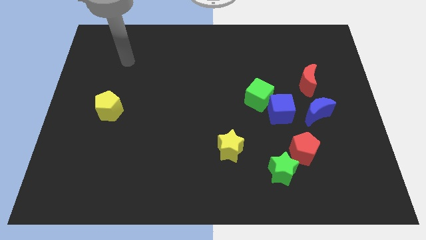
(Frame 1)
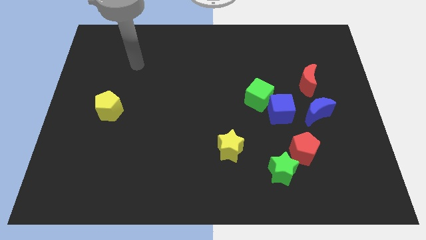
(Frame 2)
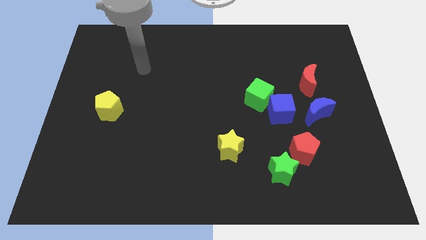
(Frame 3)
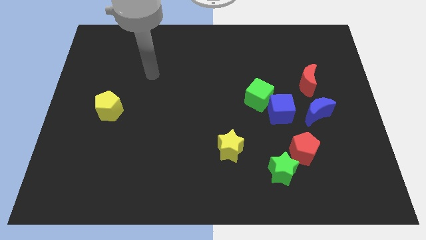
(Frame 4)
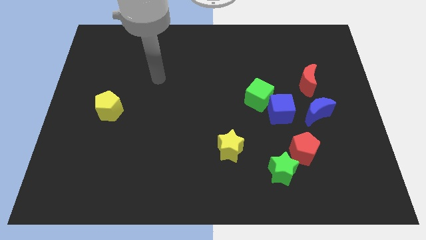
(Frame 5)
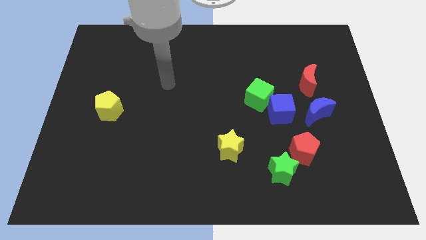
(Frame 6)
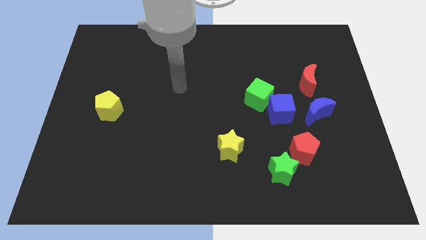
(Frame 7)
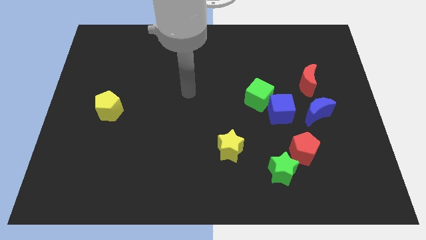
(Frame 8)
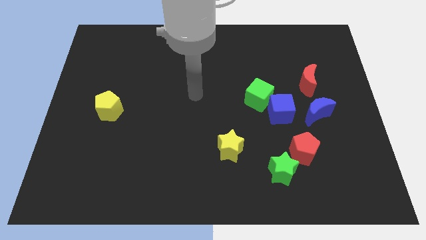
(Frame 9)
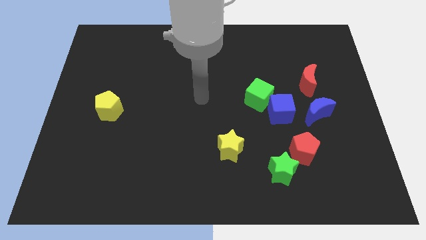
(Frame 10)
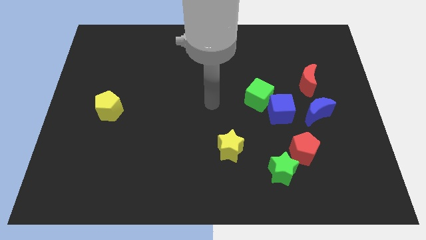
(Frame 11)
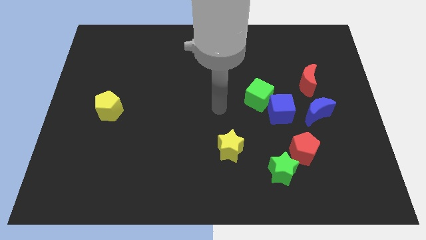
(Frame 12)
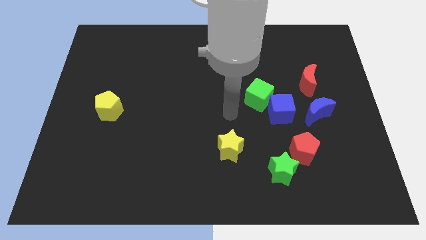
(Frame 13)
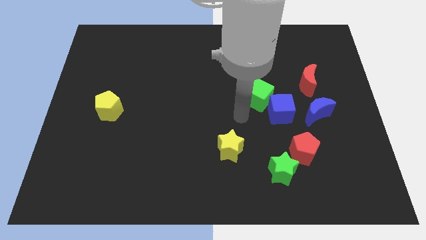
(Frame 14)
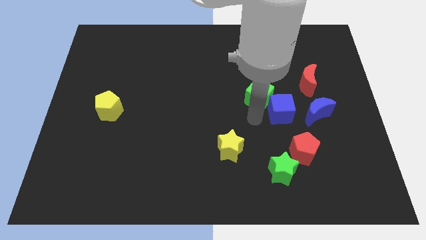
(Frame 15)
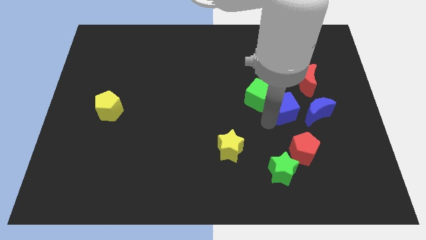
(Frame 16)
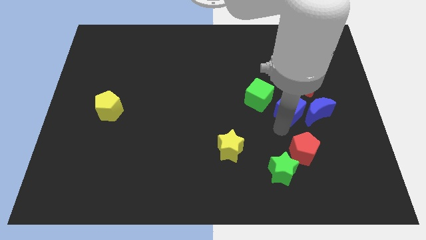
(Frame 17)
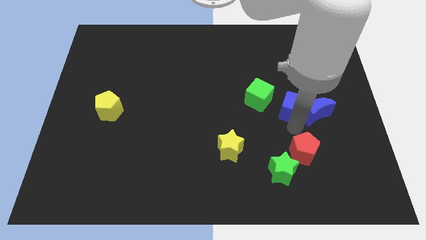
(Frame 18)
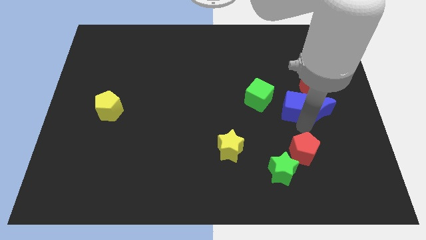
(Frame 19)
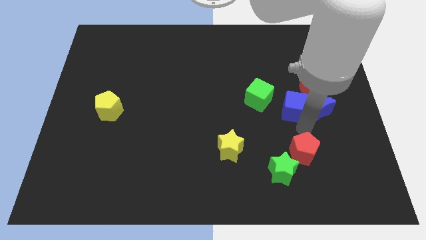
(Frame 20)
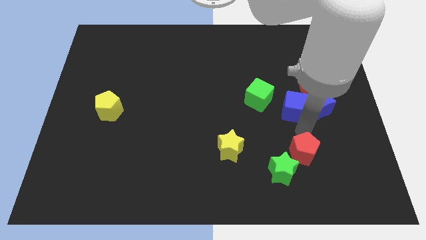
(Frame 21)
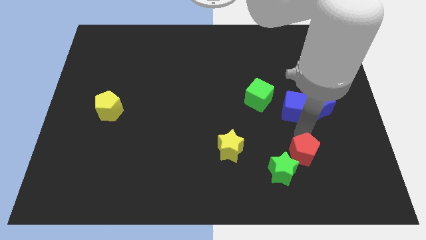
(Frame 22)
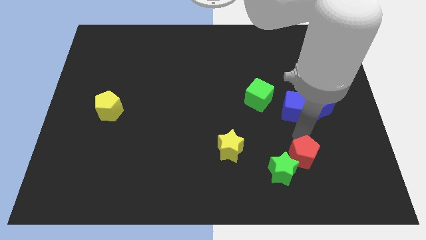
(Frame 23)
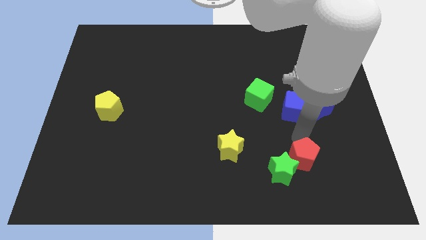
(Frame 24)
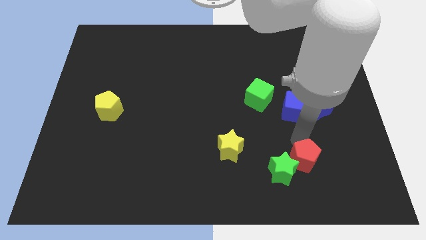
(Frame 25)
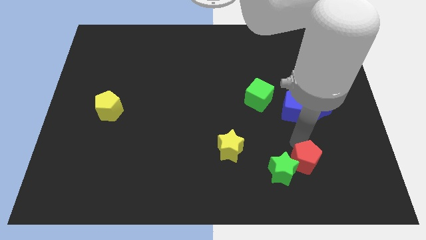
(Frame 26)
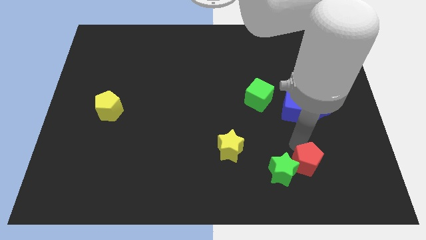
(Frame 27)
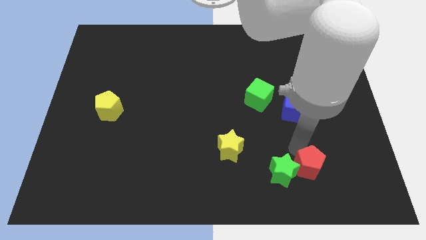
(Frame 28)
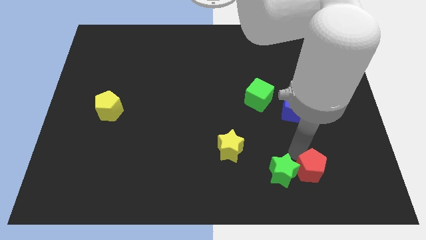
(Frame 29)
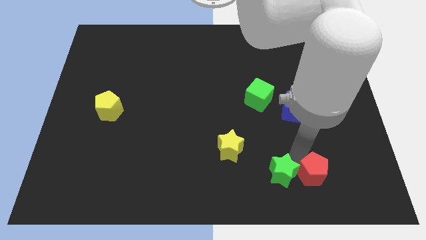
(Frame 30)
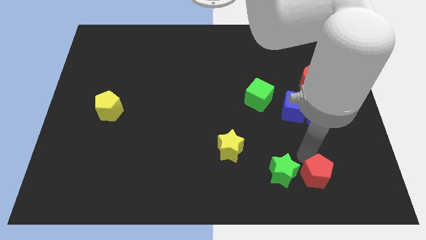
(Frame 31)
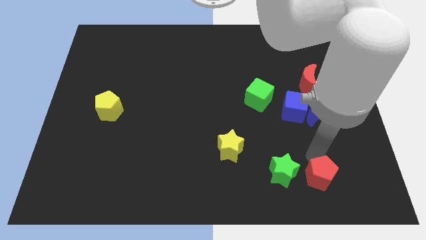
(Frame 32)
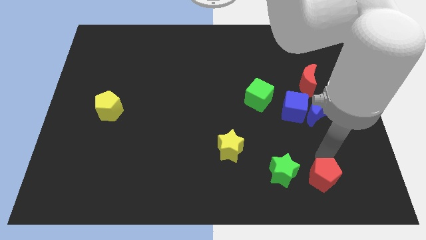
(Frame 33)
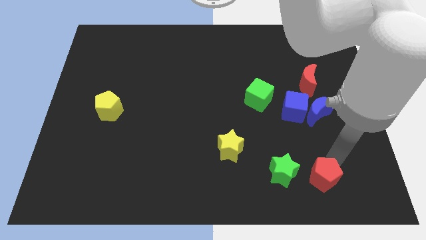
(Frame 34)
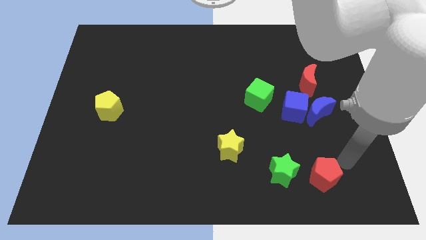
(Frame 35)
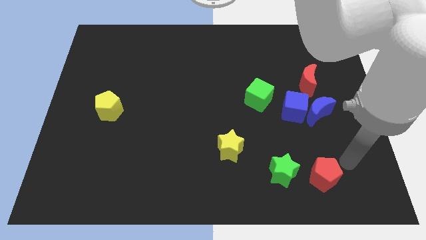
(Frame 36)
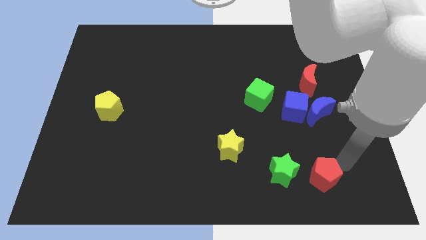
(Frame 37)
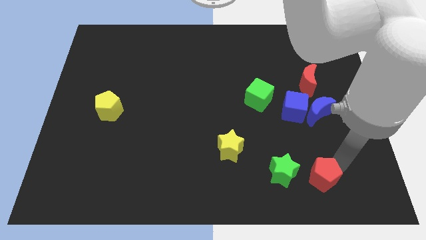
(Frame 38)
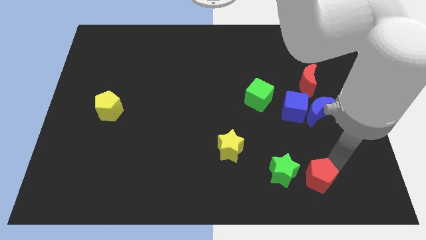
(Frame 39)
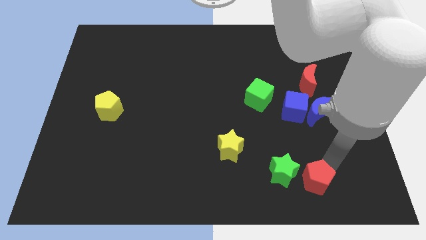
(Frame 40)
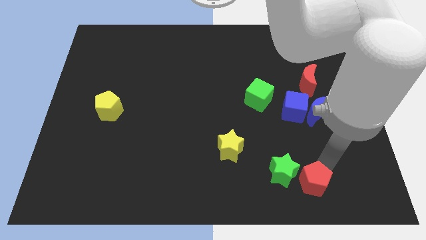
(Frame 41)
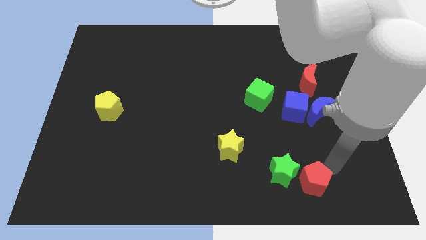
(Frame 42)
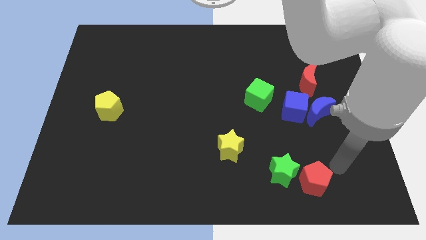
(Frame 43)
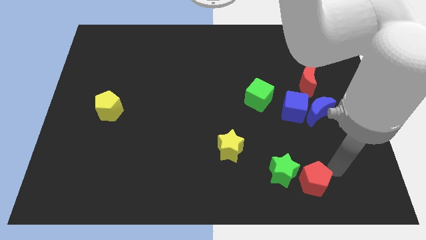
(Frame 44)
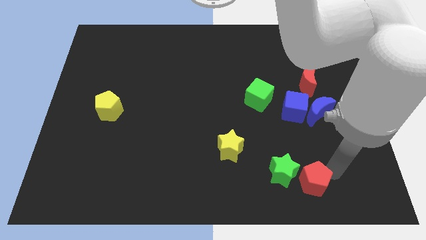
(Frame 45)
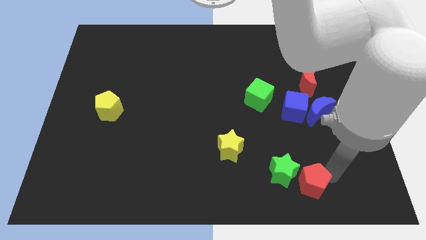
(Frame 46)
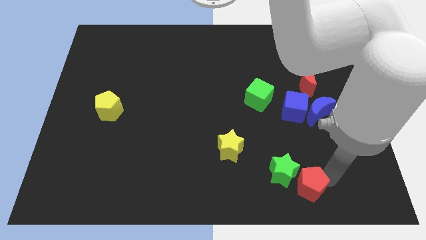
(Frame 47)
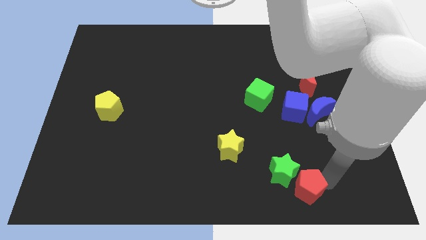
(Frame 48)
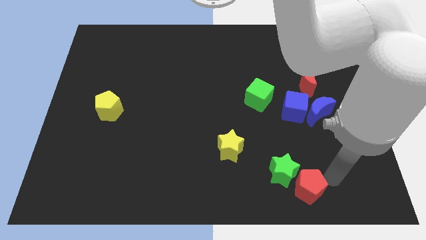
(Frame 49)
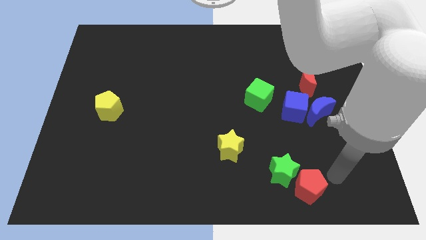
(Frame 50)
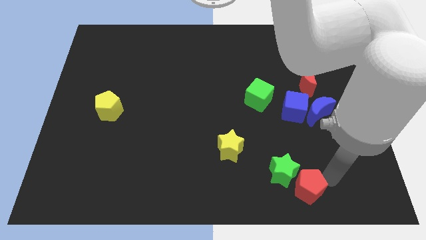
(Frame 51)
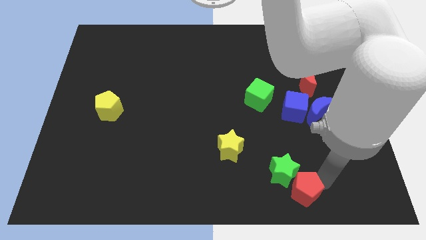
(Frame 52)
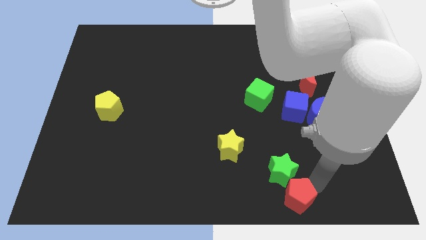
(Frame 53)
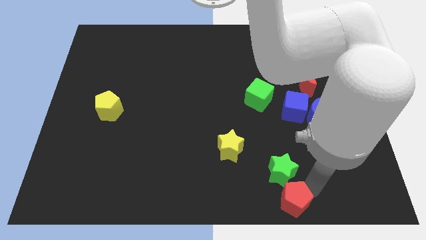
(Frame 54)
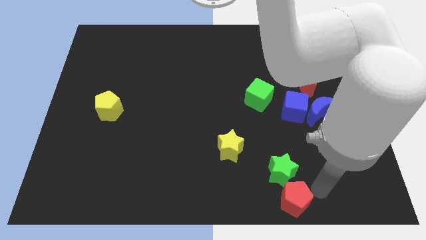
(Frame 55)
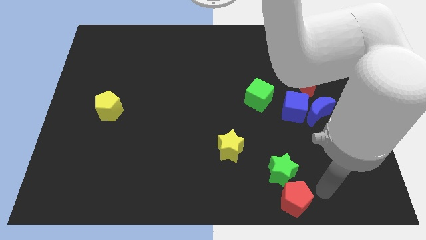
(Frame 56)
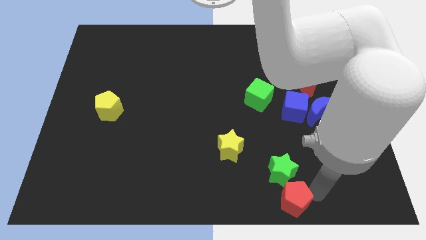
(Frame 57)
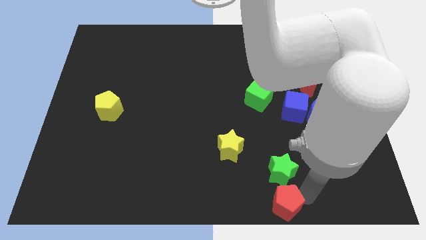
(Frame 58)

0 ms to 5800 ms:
push the red pentagon to the bottom side

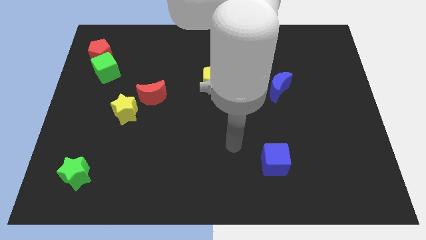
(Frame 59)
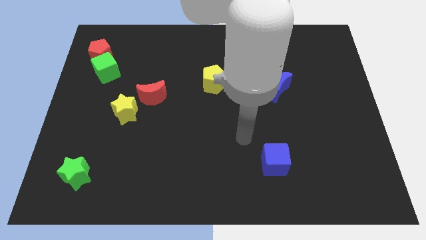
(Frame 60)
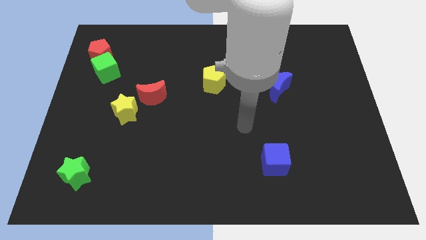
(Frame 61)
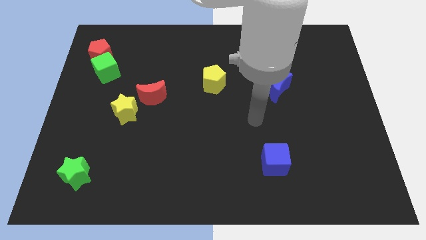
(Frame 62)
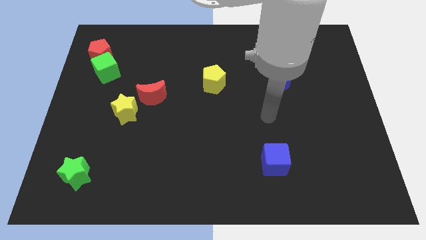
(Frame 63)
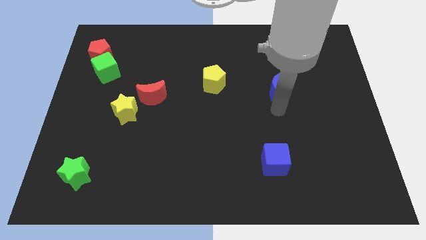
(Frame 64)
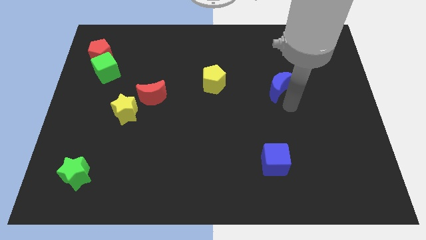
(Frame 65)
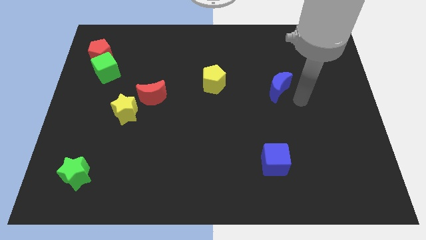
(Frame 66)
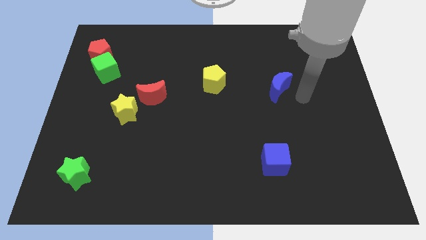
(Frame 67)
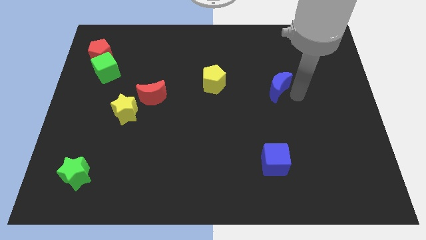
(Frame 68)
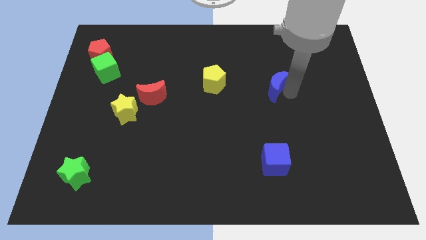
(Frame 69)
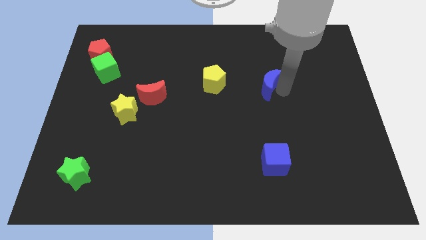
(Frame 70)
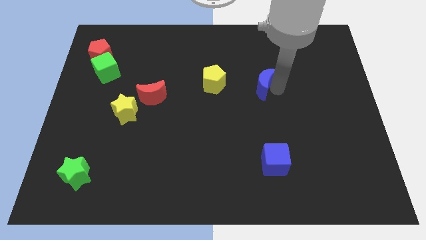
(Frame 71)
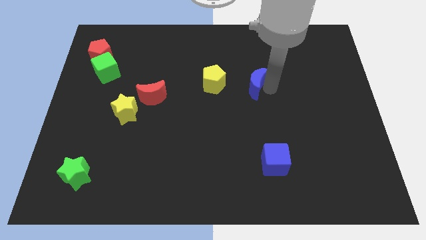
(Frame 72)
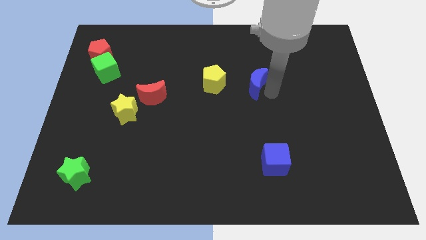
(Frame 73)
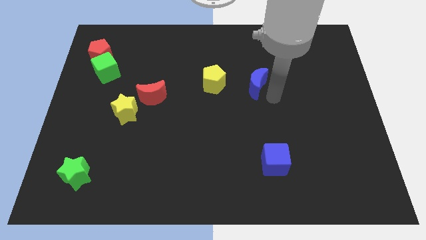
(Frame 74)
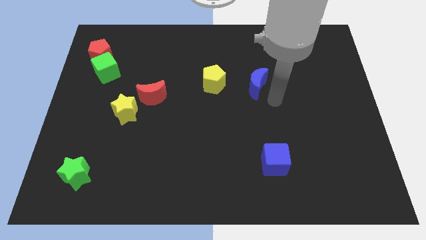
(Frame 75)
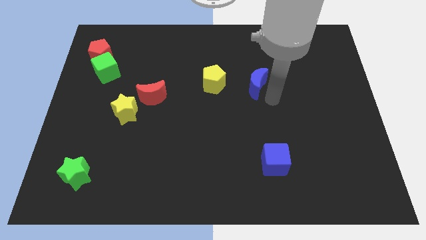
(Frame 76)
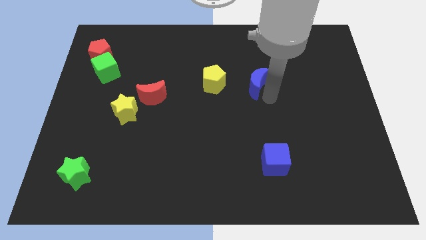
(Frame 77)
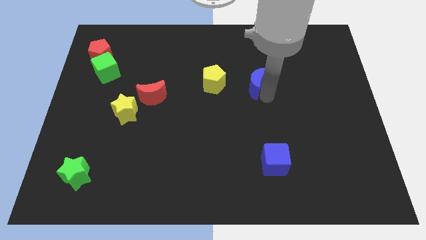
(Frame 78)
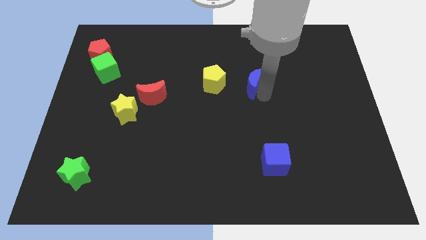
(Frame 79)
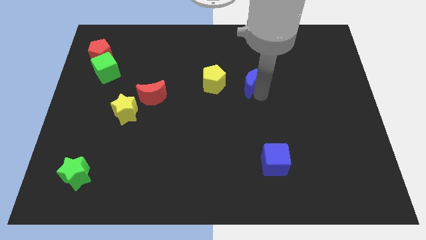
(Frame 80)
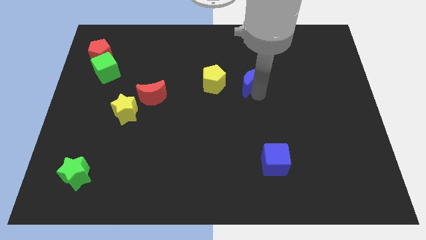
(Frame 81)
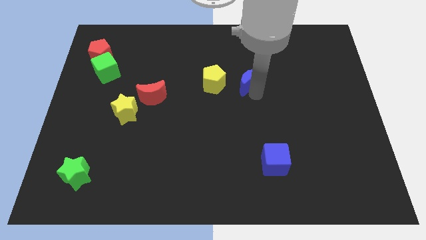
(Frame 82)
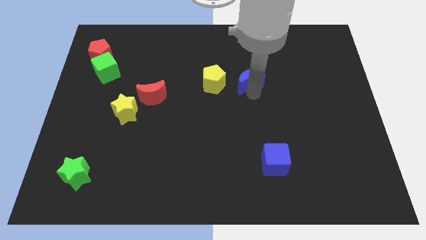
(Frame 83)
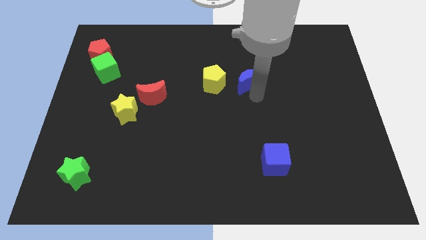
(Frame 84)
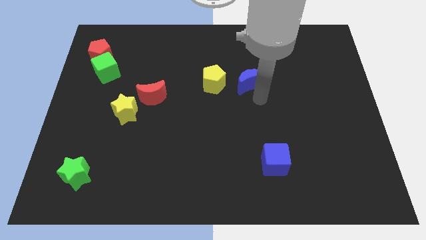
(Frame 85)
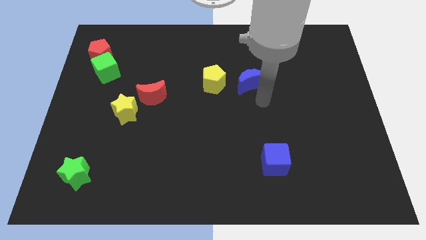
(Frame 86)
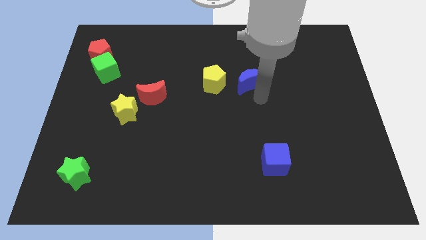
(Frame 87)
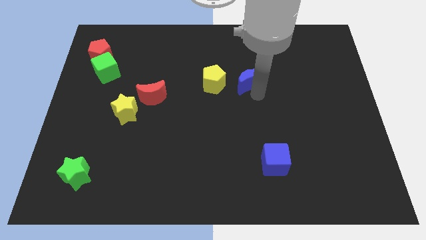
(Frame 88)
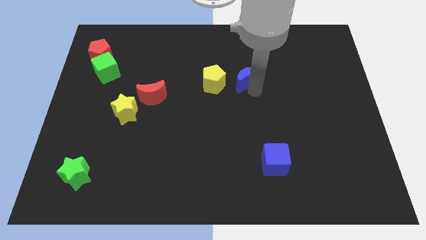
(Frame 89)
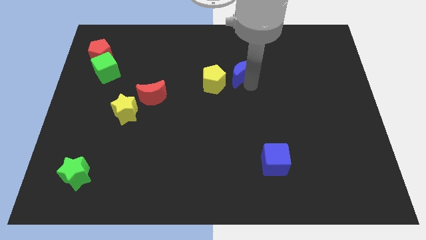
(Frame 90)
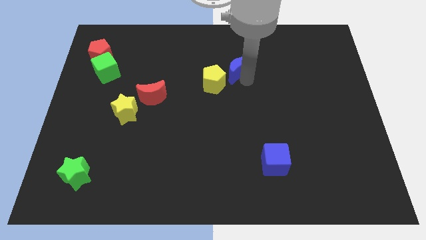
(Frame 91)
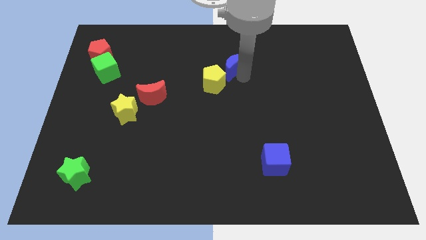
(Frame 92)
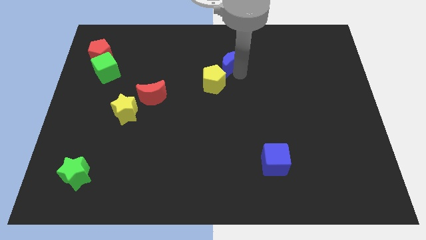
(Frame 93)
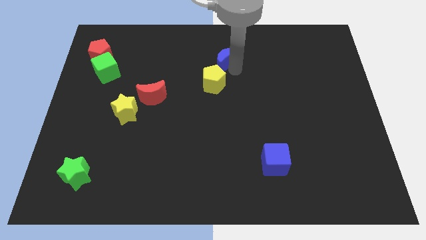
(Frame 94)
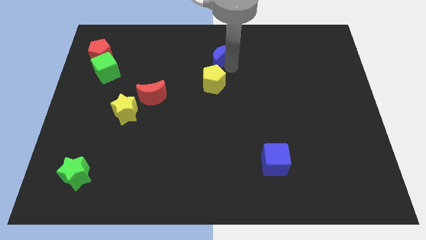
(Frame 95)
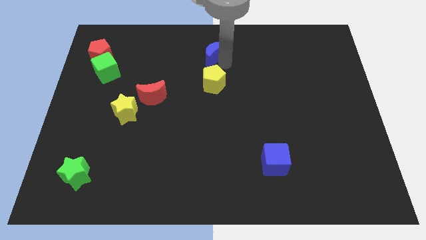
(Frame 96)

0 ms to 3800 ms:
push the blue moon to the towards your base
